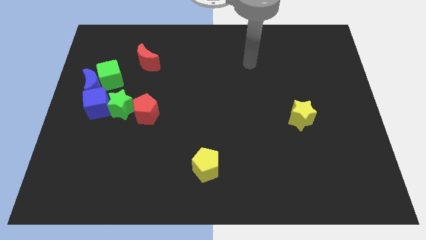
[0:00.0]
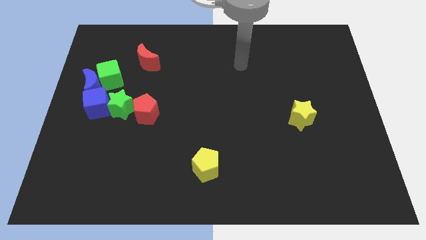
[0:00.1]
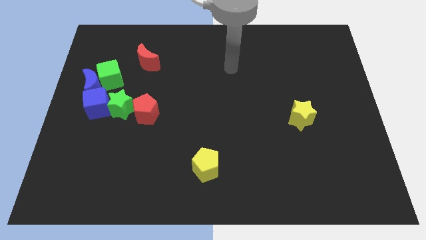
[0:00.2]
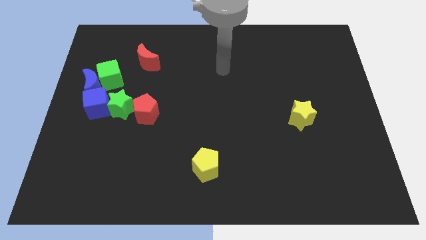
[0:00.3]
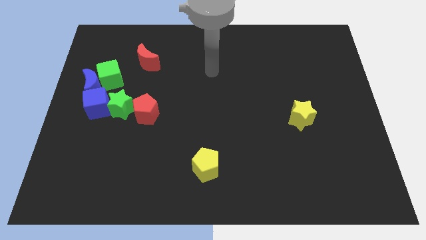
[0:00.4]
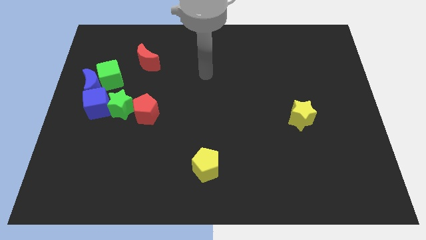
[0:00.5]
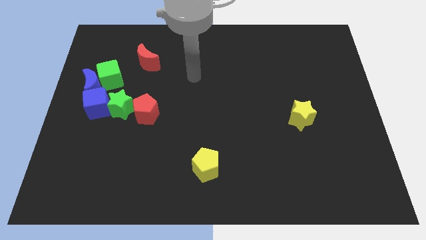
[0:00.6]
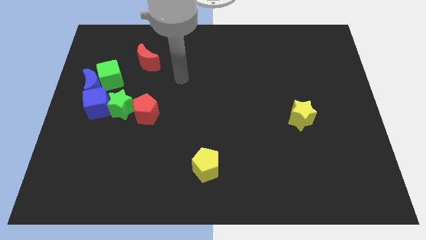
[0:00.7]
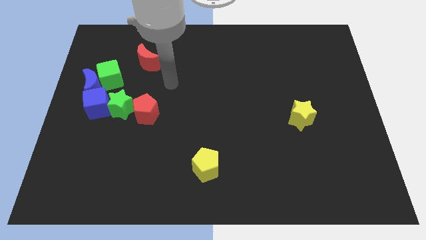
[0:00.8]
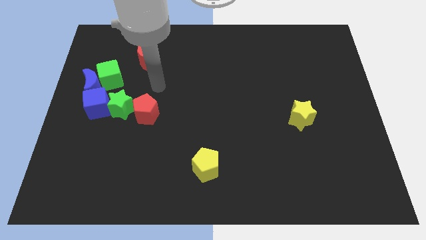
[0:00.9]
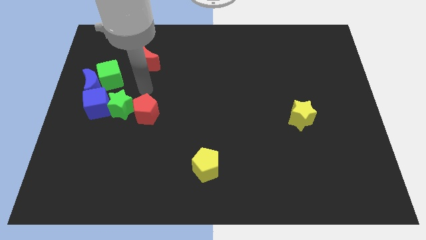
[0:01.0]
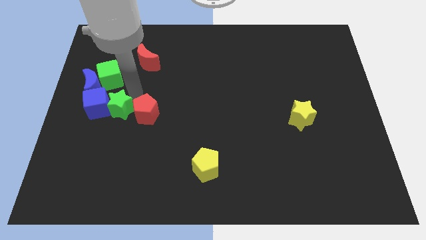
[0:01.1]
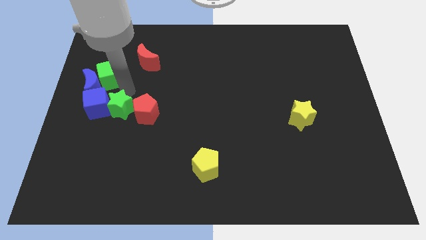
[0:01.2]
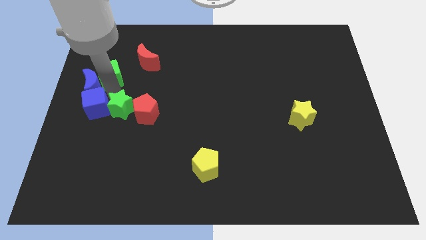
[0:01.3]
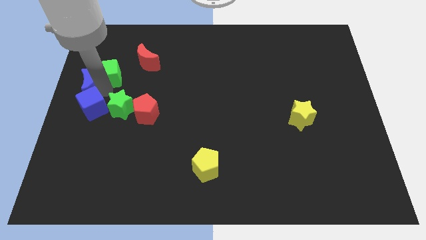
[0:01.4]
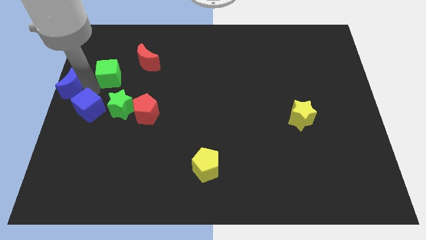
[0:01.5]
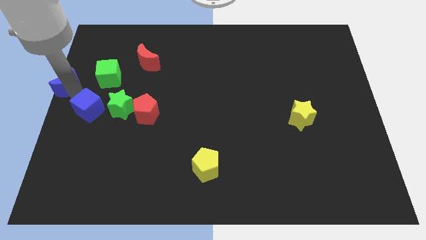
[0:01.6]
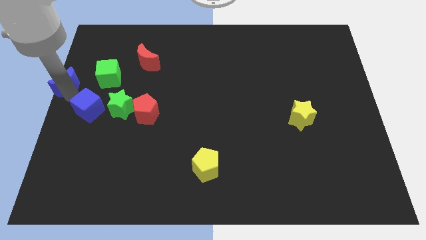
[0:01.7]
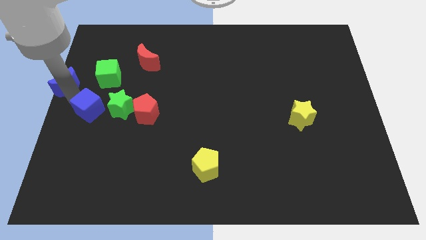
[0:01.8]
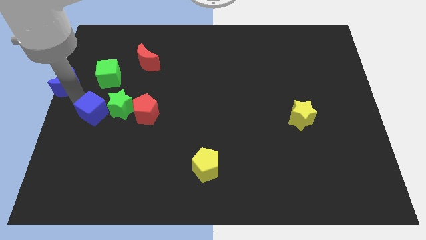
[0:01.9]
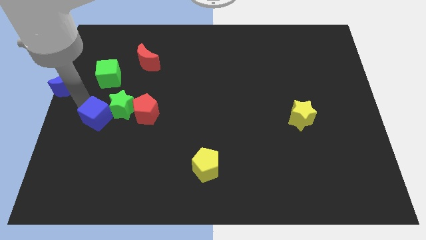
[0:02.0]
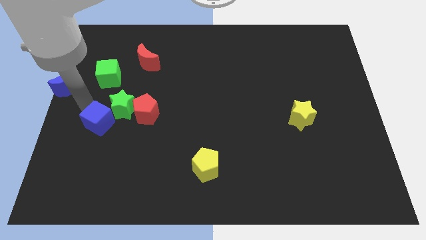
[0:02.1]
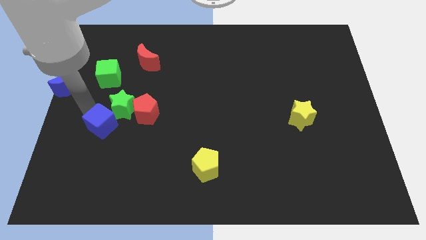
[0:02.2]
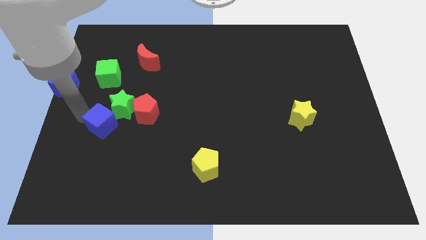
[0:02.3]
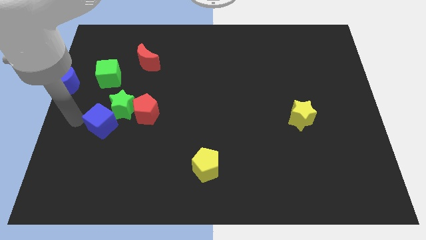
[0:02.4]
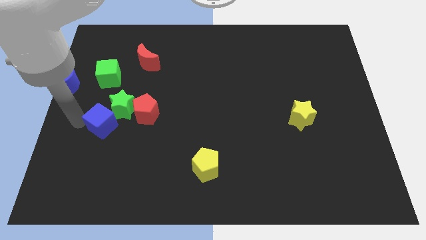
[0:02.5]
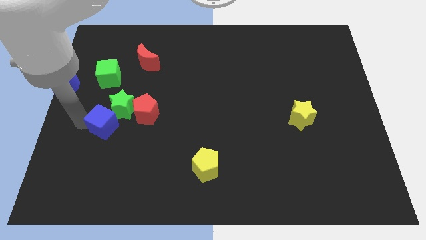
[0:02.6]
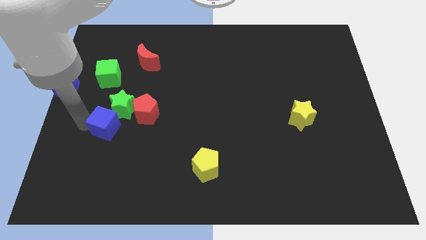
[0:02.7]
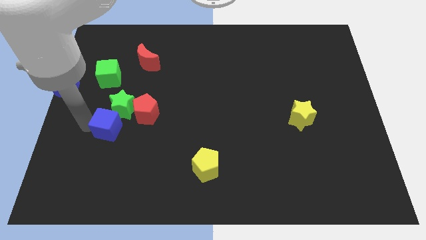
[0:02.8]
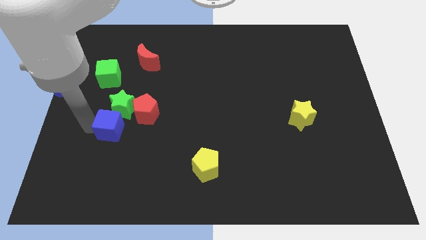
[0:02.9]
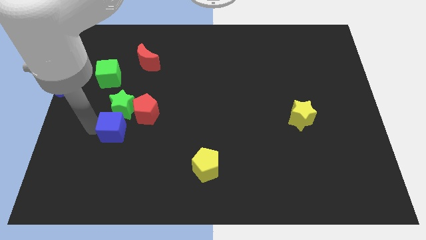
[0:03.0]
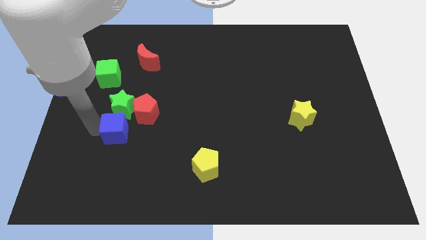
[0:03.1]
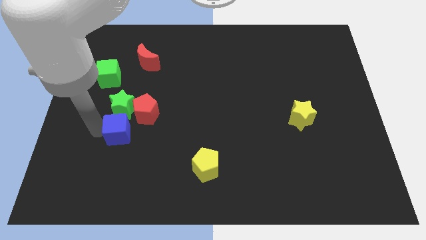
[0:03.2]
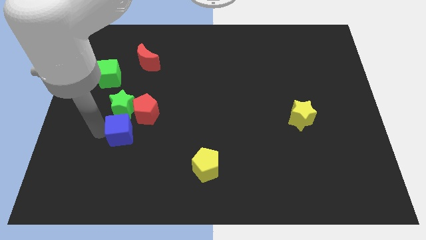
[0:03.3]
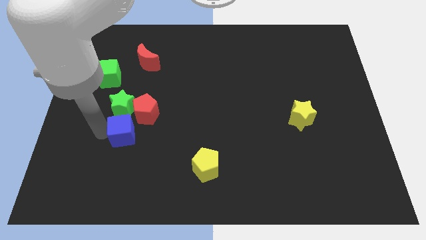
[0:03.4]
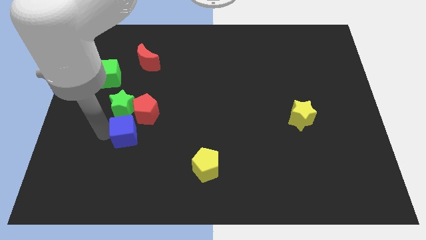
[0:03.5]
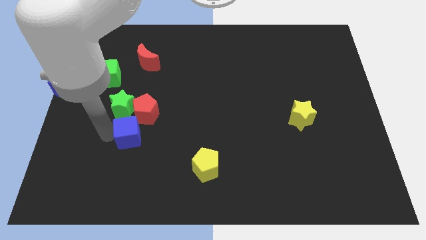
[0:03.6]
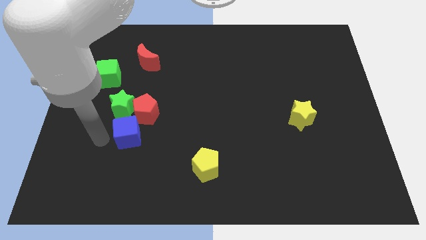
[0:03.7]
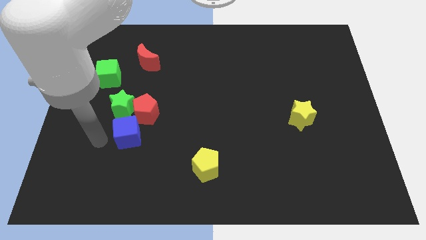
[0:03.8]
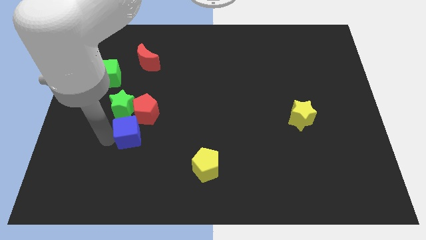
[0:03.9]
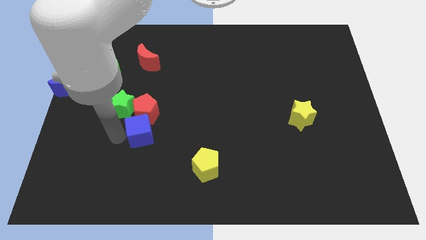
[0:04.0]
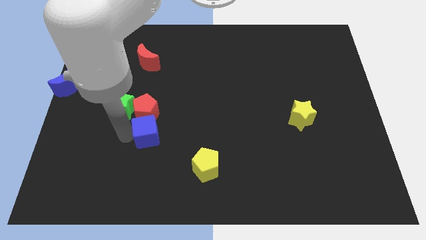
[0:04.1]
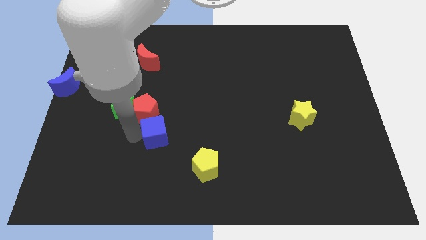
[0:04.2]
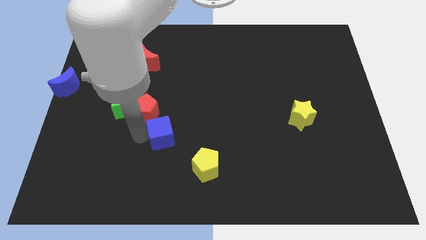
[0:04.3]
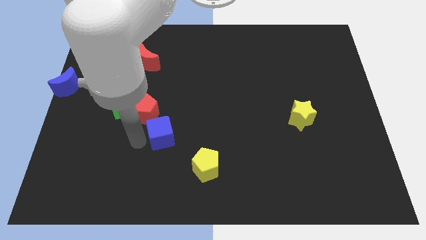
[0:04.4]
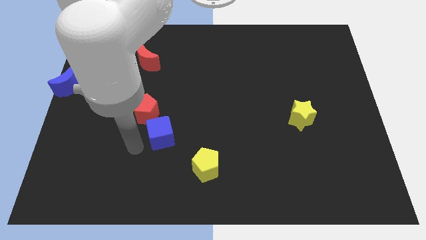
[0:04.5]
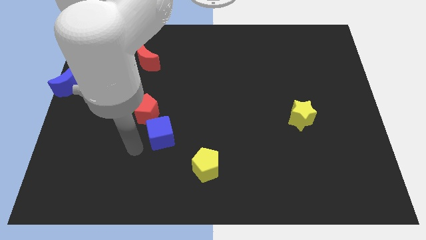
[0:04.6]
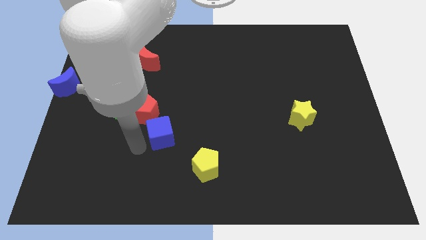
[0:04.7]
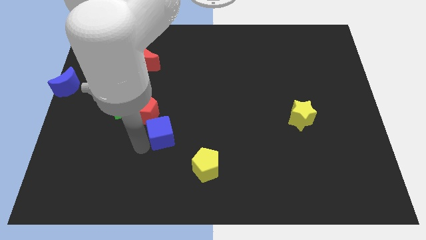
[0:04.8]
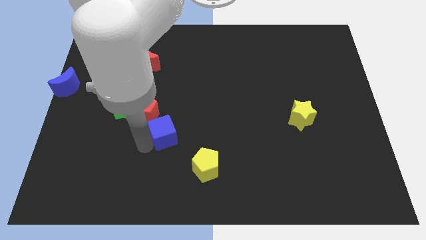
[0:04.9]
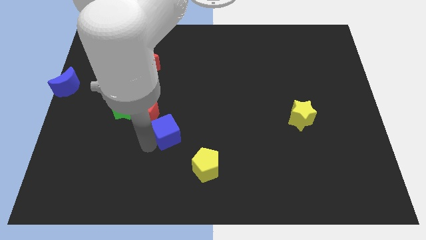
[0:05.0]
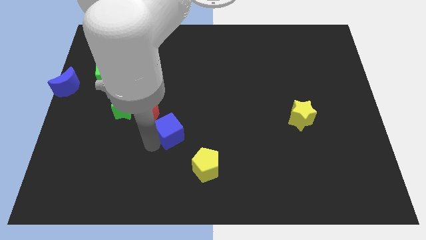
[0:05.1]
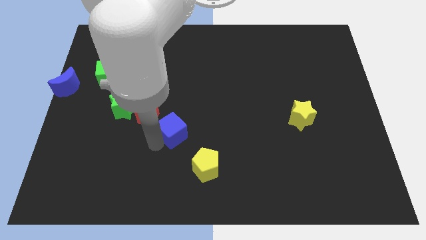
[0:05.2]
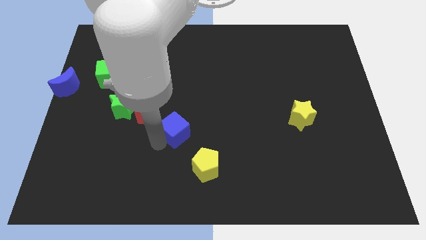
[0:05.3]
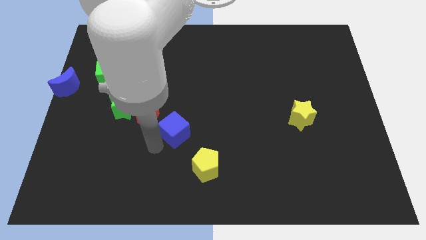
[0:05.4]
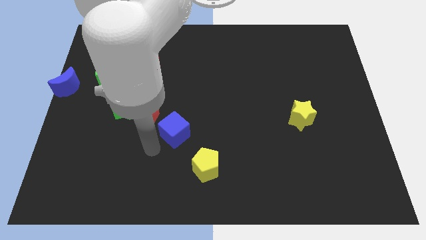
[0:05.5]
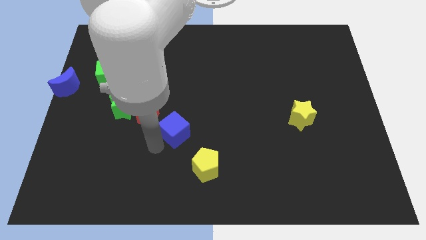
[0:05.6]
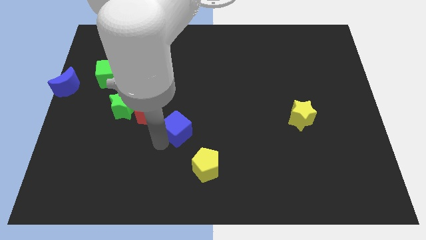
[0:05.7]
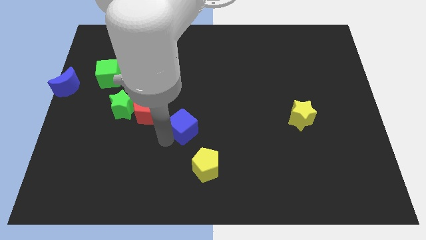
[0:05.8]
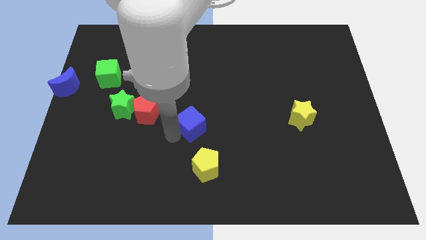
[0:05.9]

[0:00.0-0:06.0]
push the blue cube right

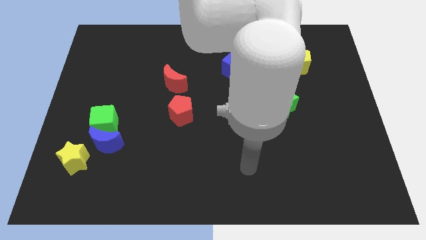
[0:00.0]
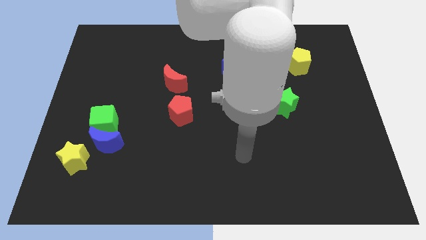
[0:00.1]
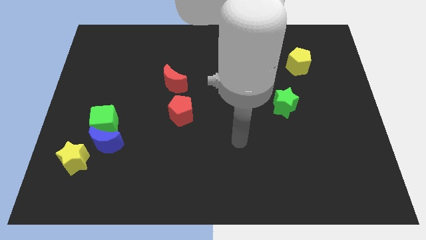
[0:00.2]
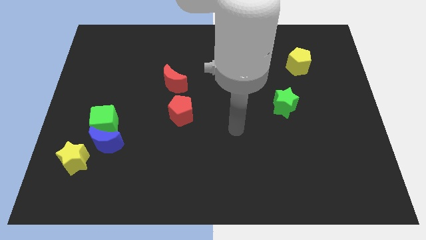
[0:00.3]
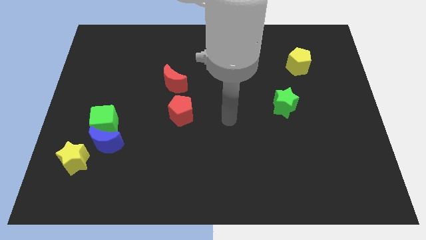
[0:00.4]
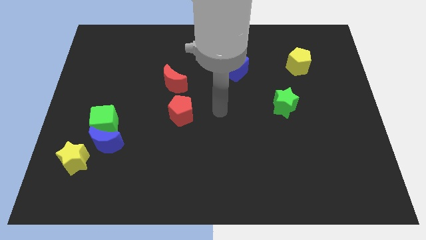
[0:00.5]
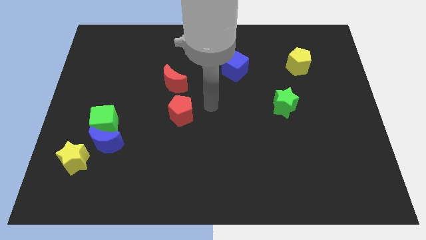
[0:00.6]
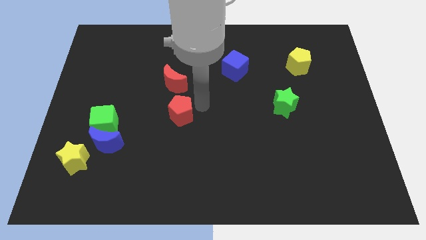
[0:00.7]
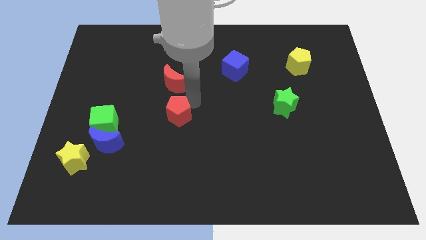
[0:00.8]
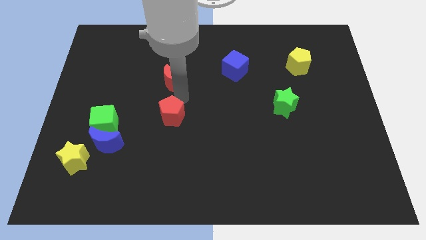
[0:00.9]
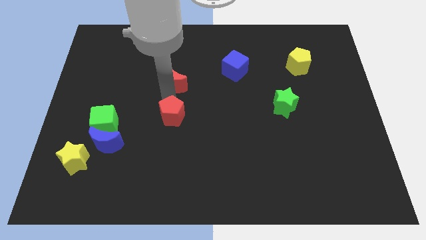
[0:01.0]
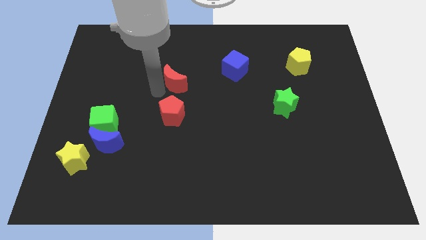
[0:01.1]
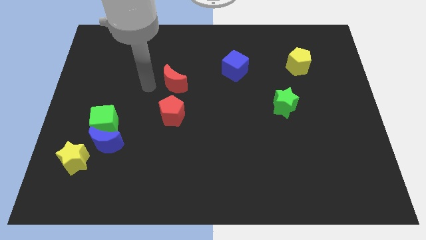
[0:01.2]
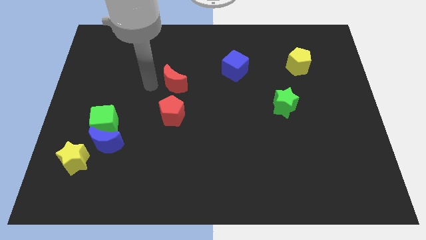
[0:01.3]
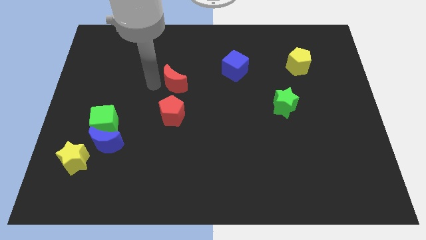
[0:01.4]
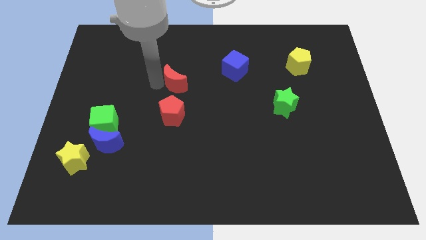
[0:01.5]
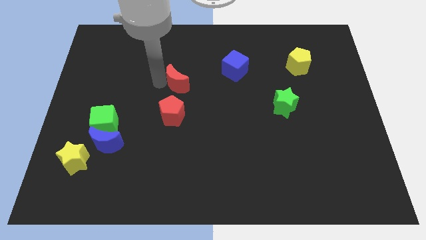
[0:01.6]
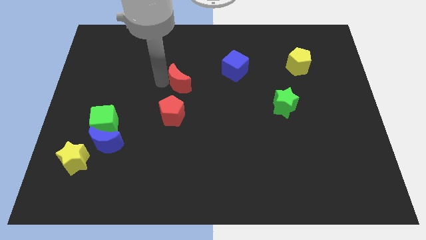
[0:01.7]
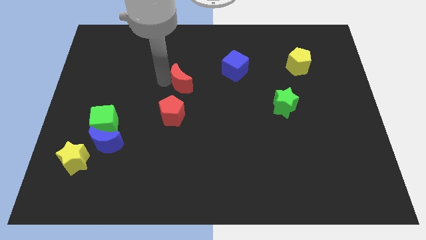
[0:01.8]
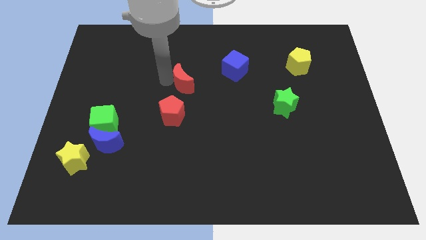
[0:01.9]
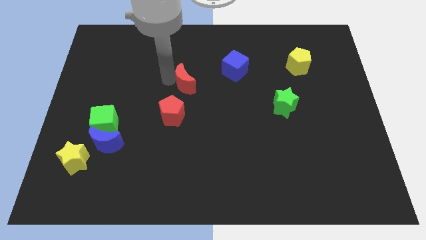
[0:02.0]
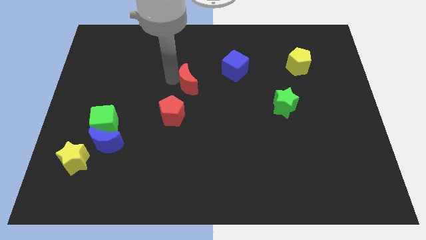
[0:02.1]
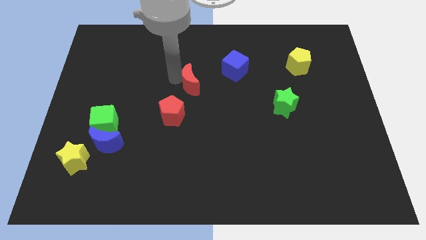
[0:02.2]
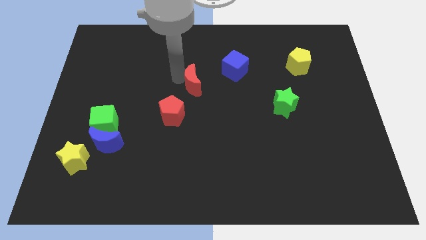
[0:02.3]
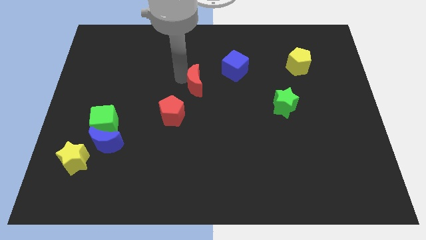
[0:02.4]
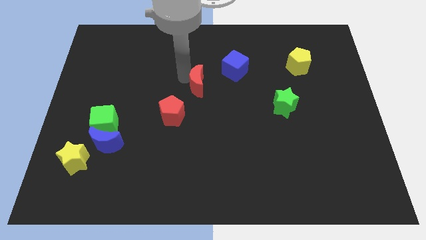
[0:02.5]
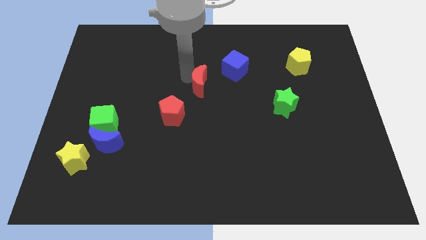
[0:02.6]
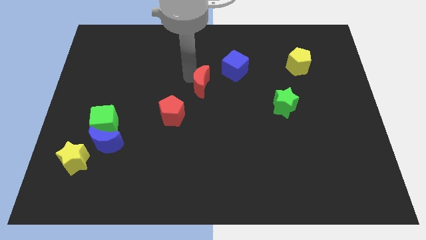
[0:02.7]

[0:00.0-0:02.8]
slightly move the red moon right

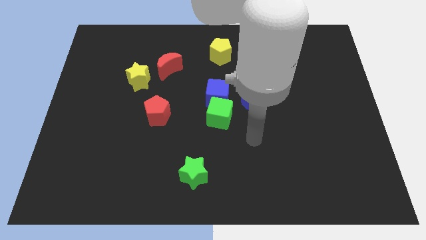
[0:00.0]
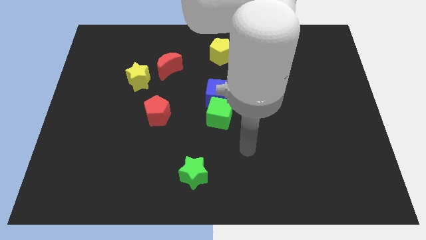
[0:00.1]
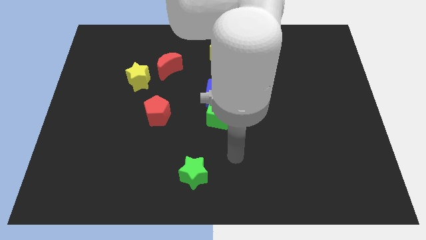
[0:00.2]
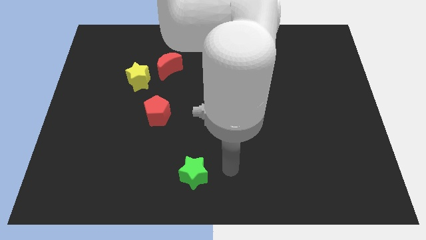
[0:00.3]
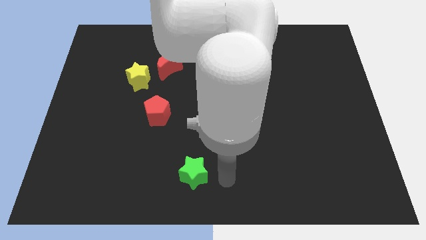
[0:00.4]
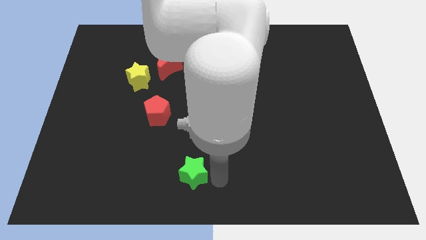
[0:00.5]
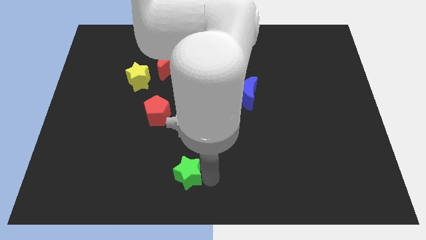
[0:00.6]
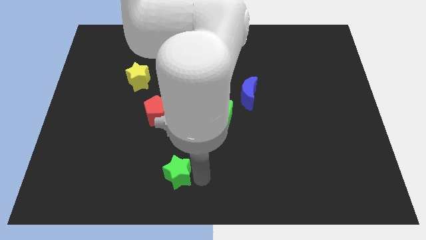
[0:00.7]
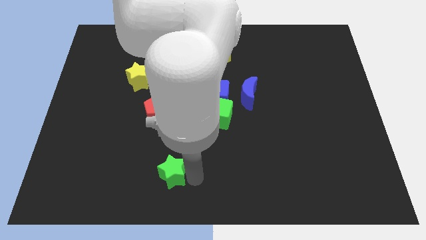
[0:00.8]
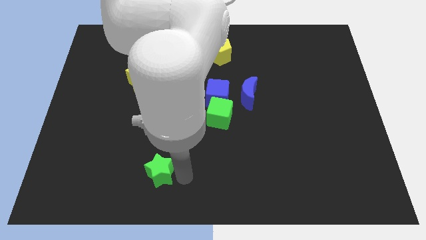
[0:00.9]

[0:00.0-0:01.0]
slightly push the green star to the left
